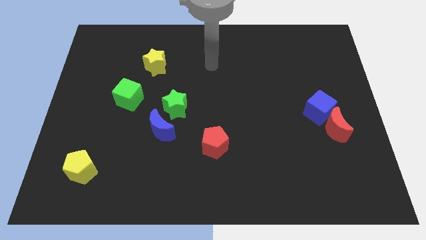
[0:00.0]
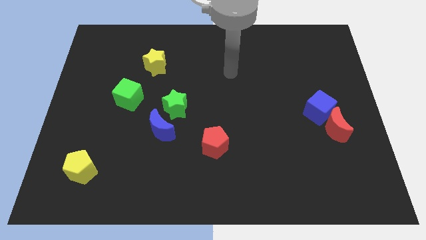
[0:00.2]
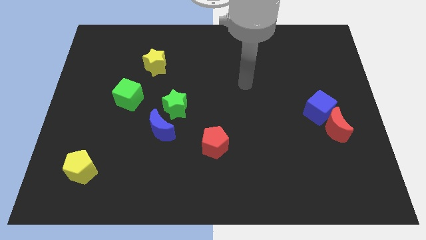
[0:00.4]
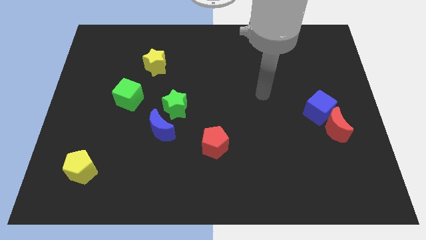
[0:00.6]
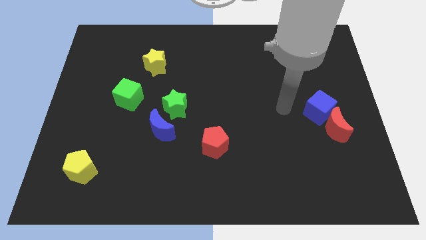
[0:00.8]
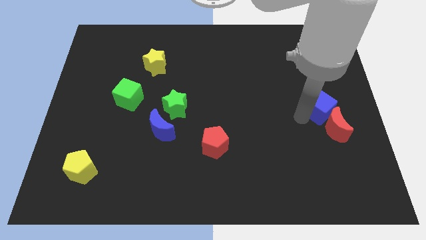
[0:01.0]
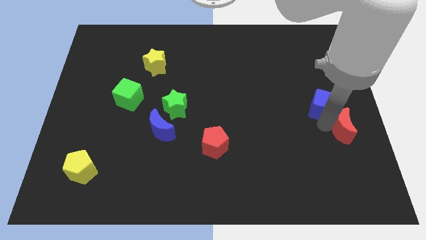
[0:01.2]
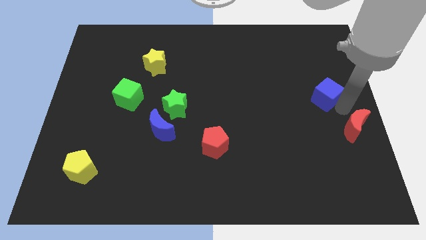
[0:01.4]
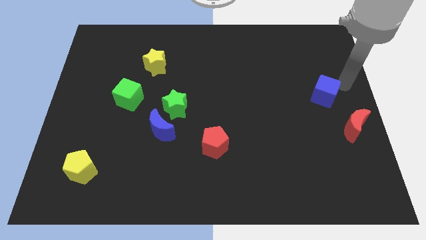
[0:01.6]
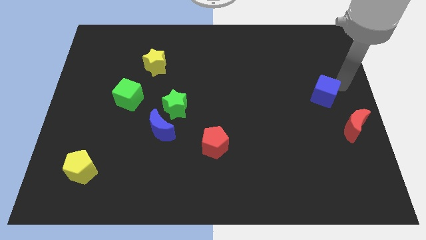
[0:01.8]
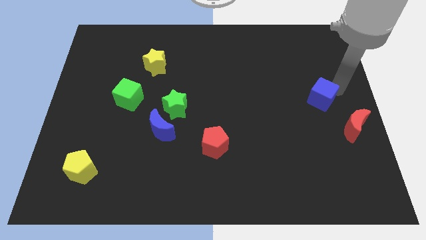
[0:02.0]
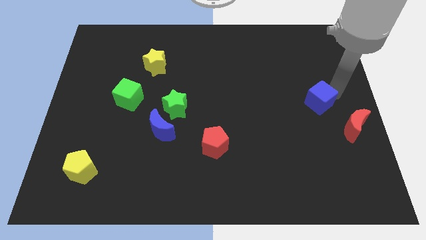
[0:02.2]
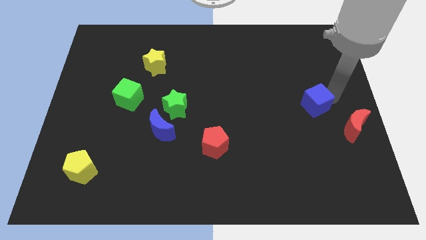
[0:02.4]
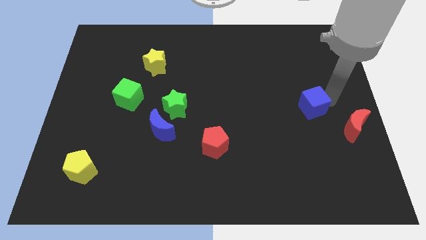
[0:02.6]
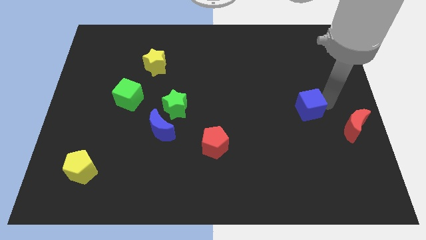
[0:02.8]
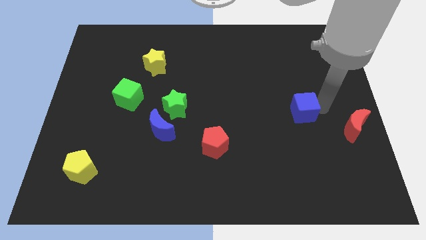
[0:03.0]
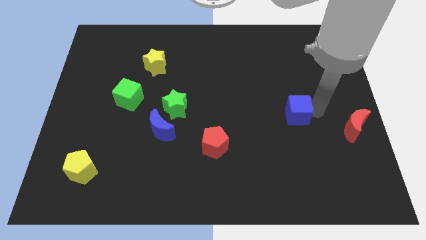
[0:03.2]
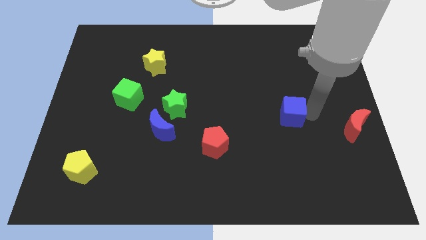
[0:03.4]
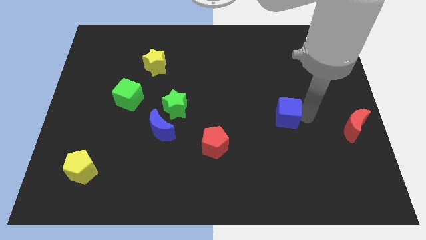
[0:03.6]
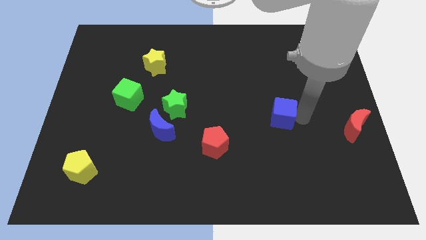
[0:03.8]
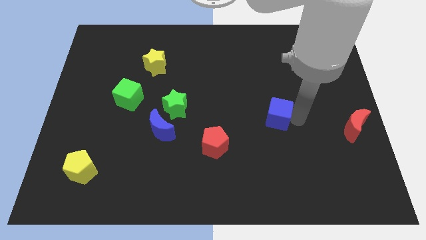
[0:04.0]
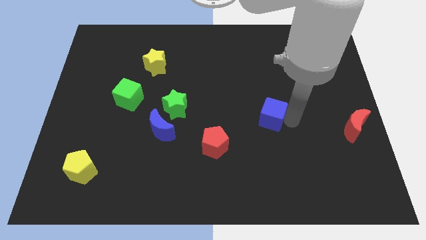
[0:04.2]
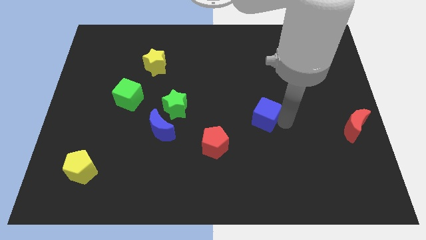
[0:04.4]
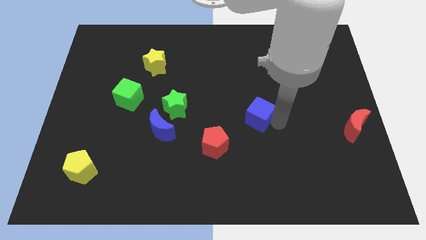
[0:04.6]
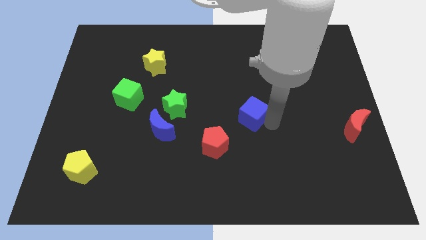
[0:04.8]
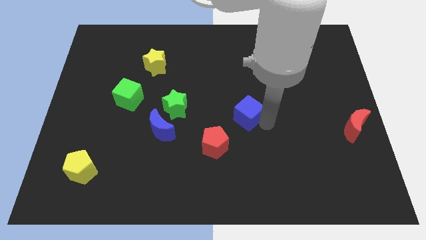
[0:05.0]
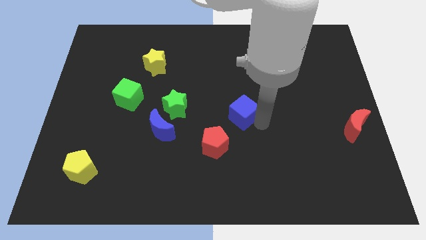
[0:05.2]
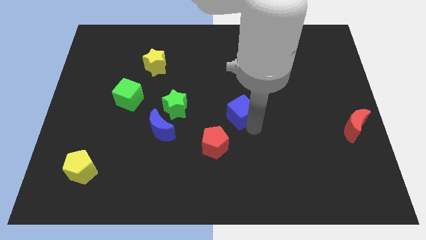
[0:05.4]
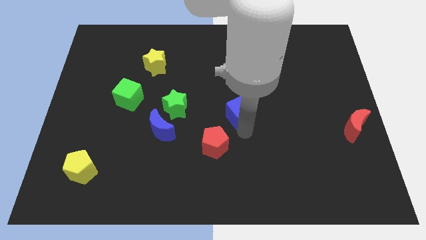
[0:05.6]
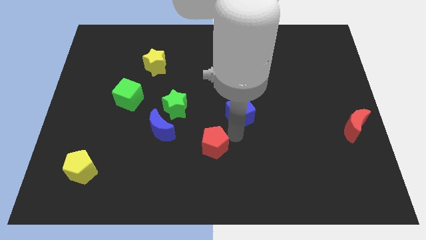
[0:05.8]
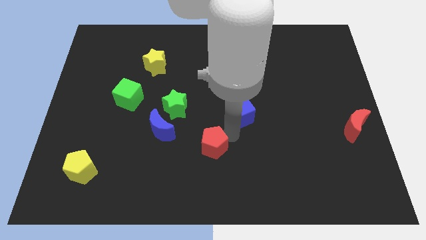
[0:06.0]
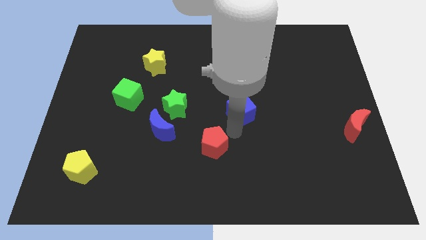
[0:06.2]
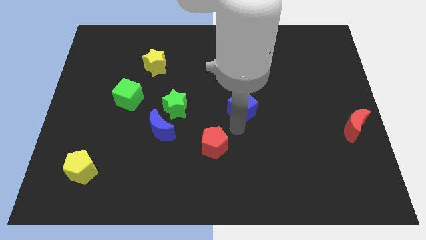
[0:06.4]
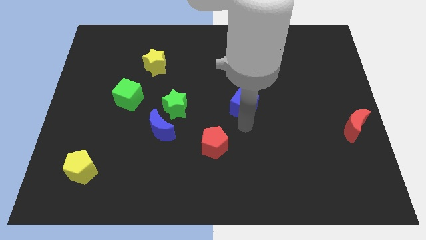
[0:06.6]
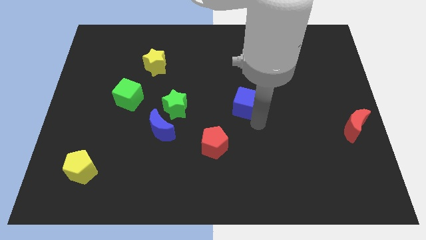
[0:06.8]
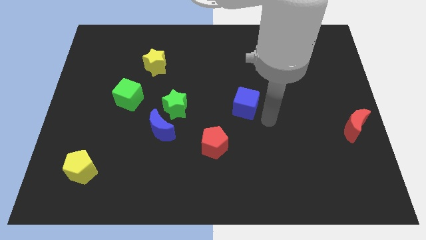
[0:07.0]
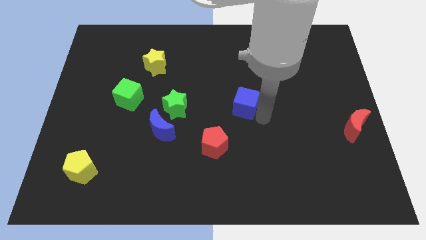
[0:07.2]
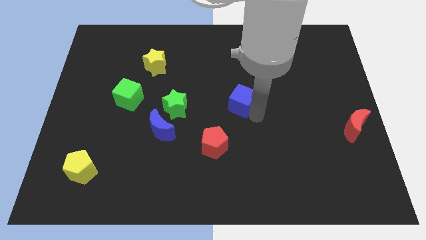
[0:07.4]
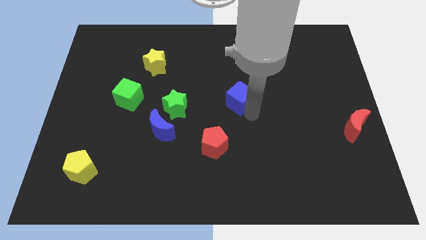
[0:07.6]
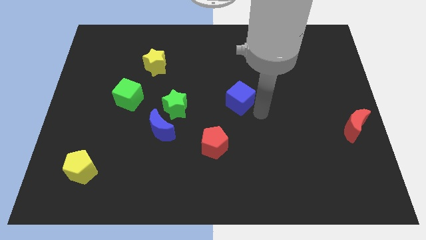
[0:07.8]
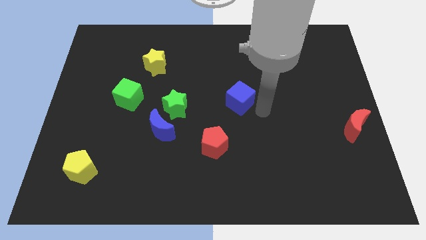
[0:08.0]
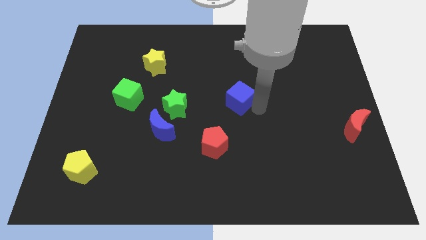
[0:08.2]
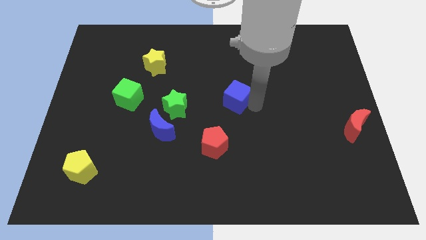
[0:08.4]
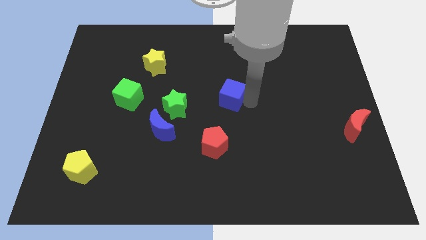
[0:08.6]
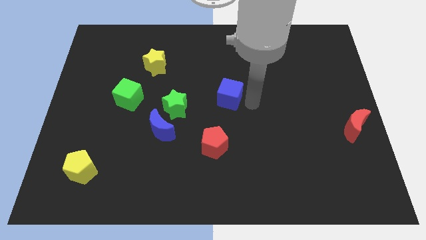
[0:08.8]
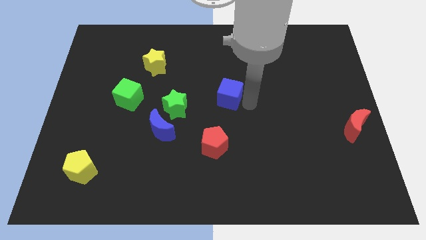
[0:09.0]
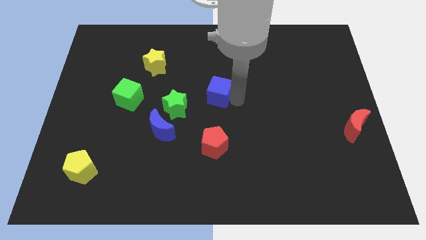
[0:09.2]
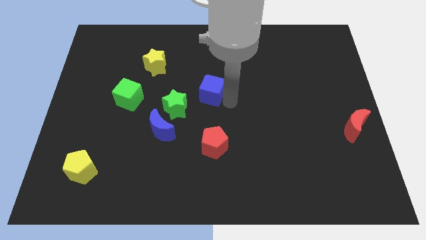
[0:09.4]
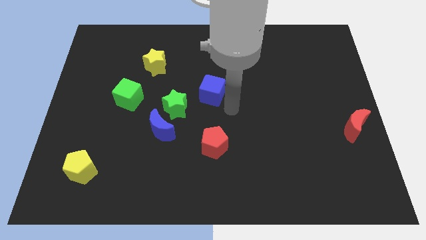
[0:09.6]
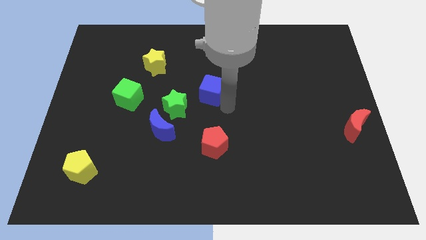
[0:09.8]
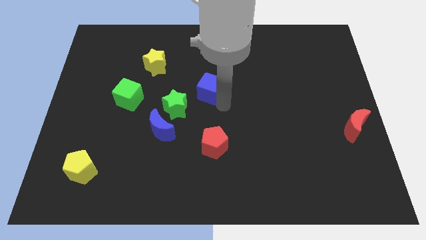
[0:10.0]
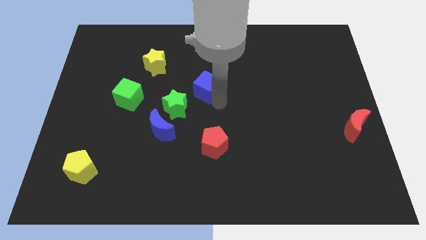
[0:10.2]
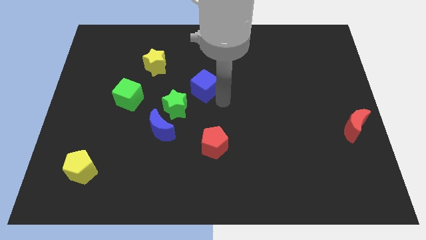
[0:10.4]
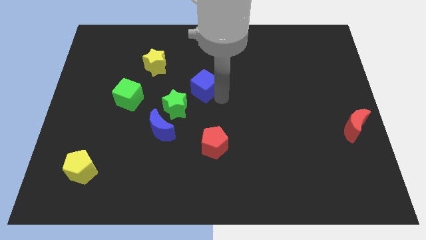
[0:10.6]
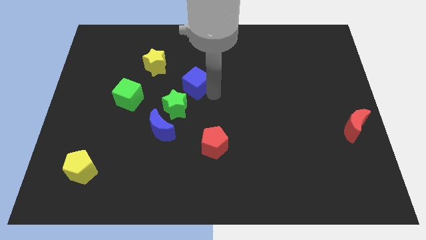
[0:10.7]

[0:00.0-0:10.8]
move the blue cube to the top of the green star
